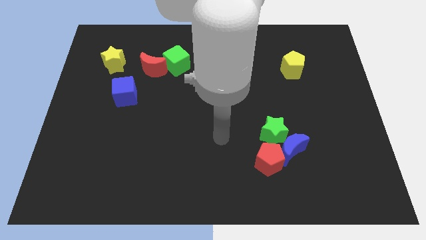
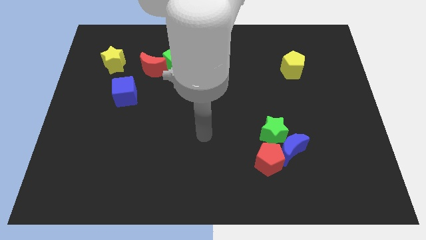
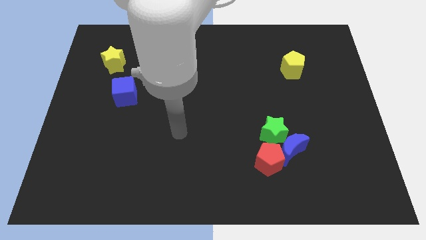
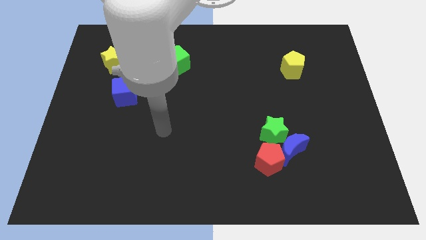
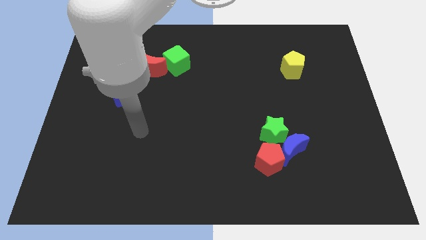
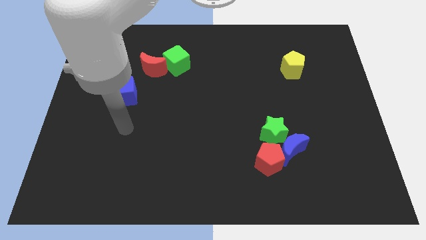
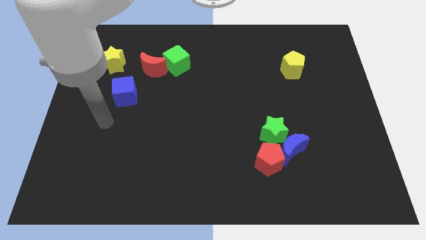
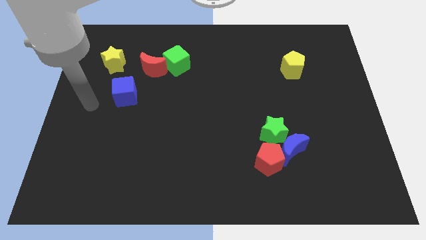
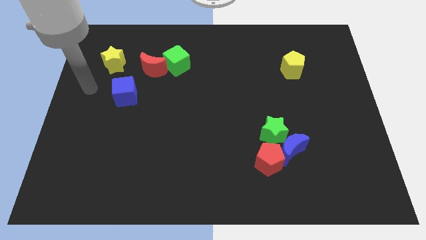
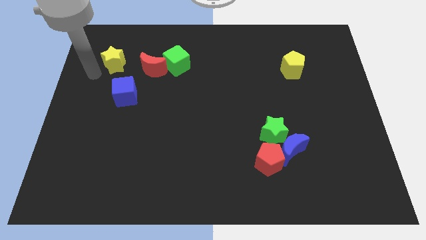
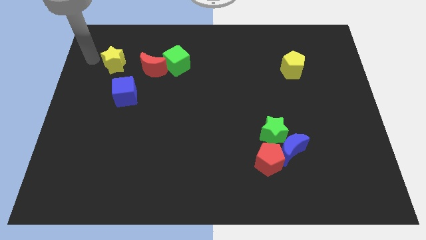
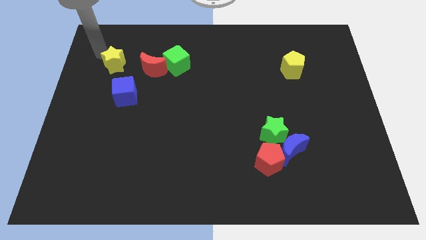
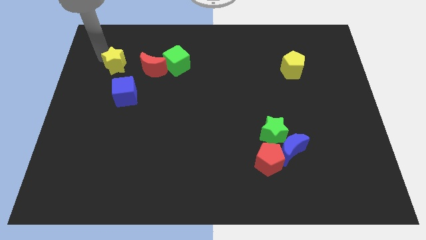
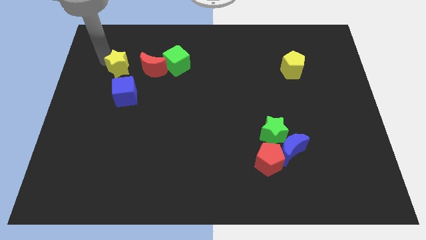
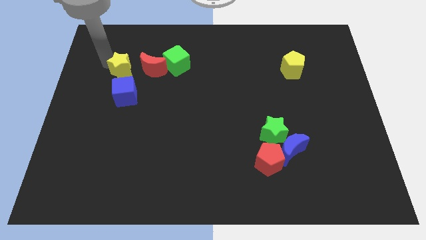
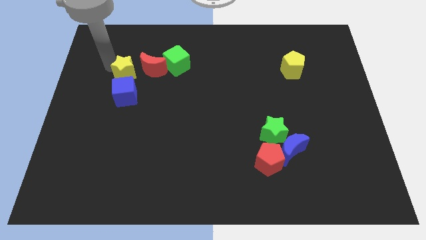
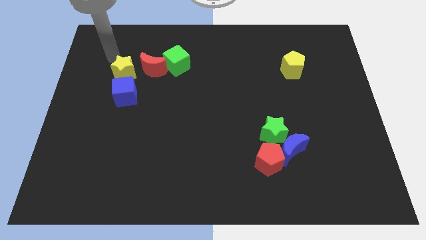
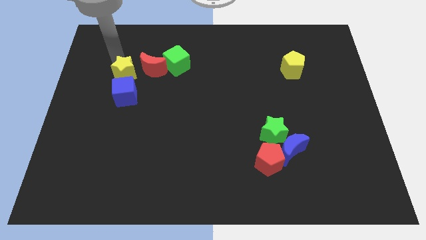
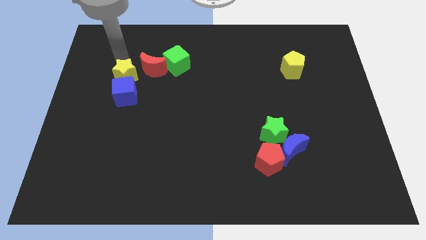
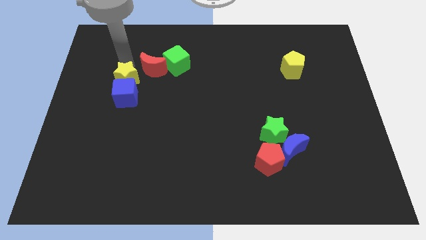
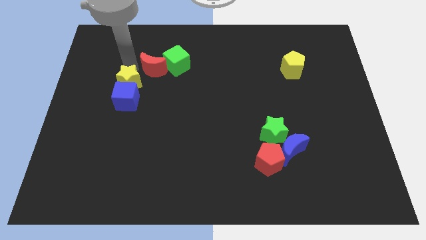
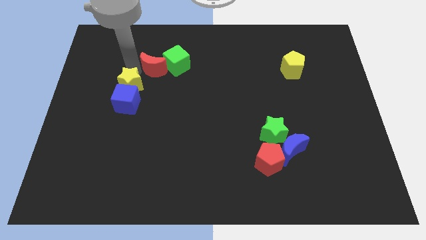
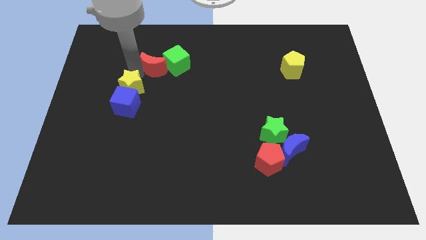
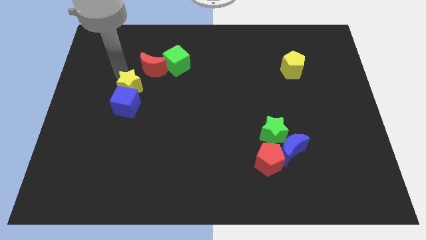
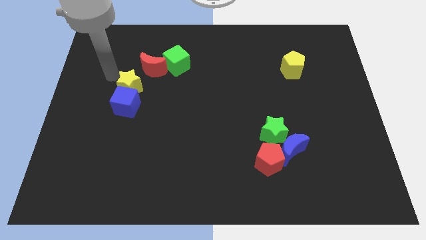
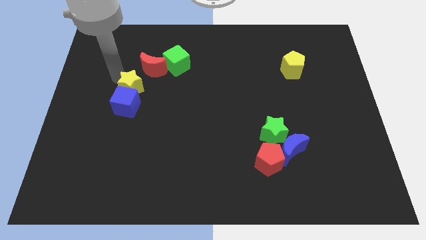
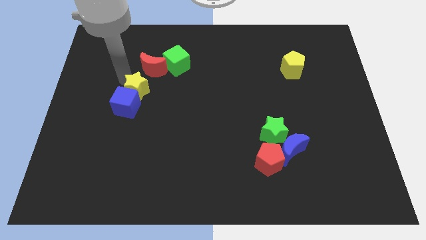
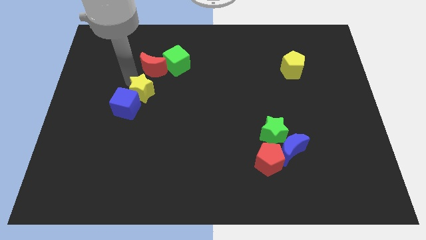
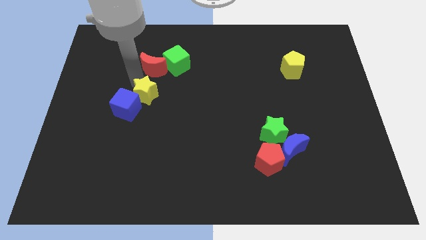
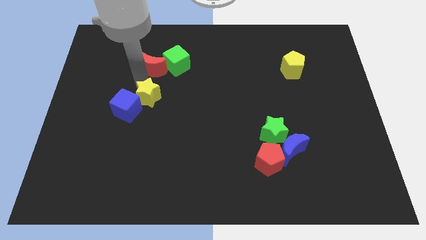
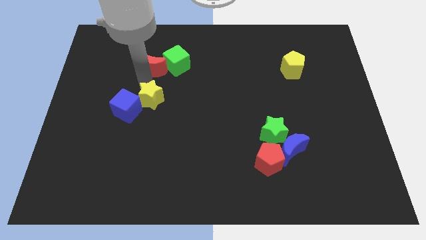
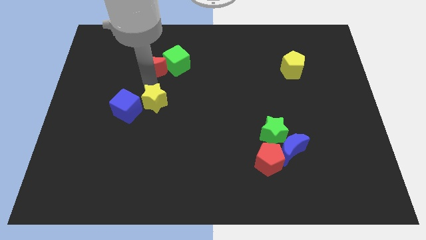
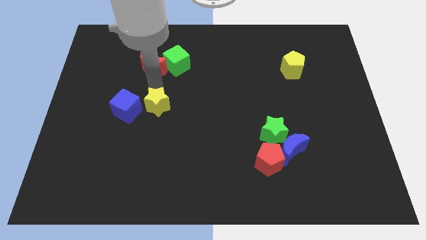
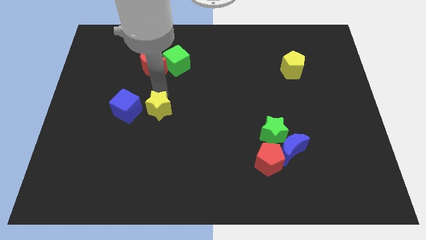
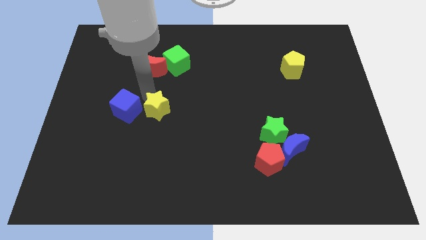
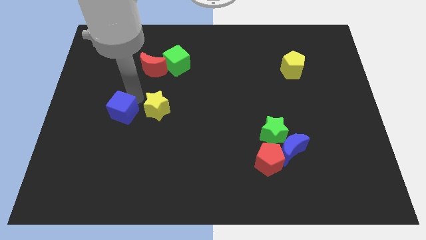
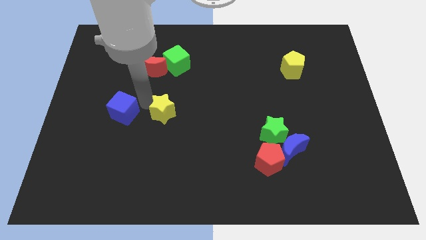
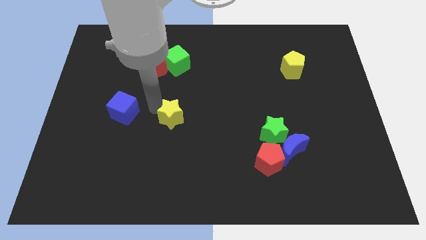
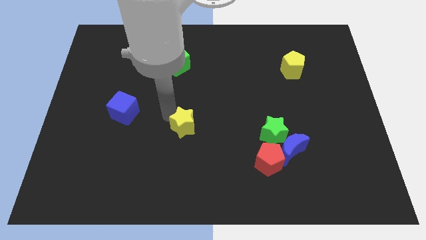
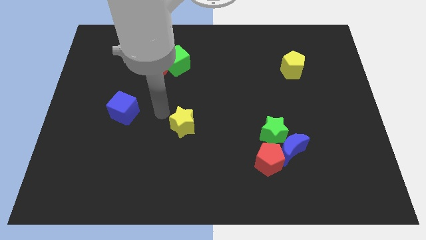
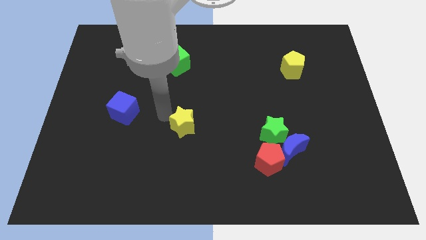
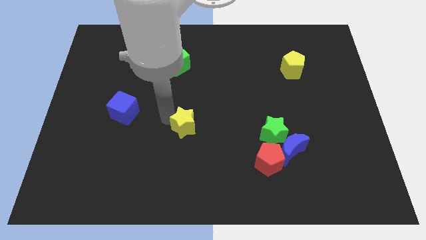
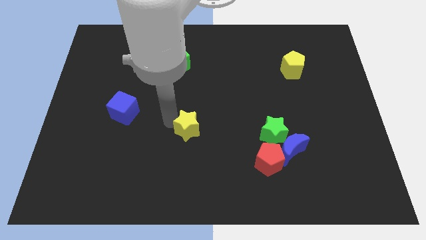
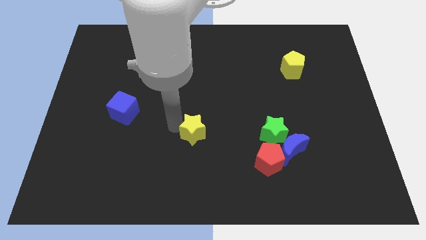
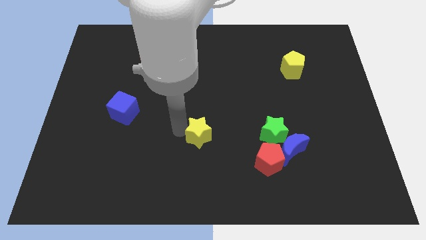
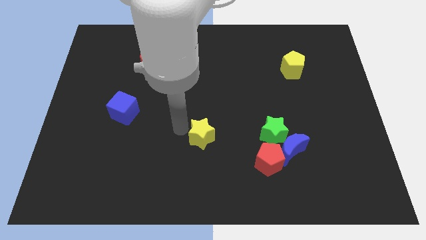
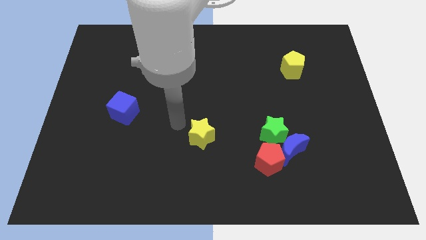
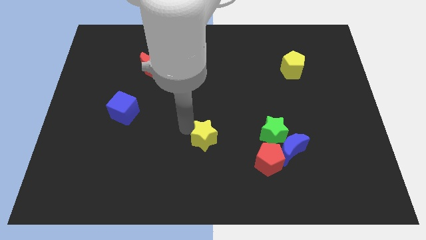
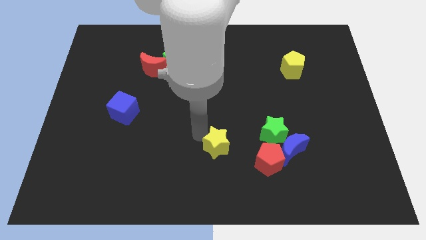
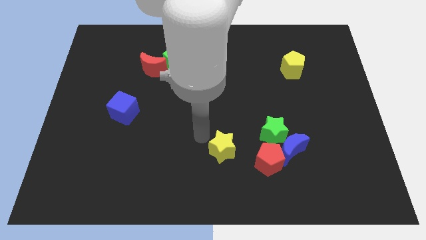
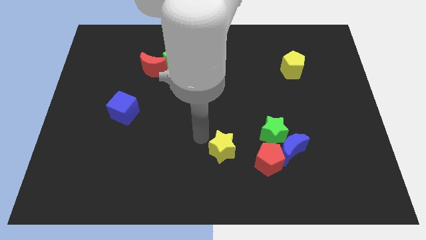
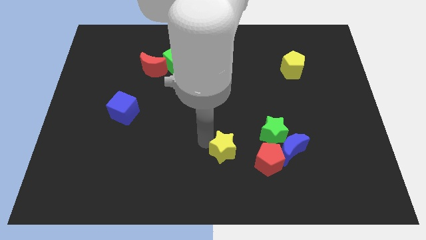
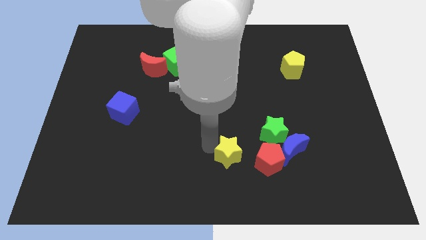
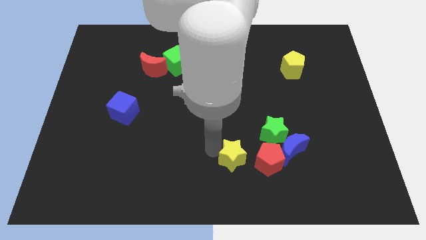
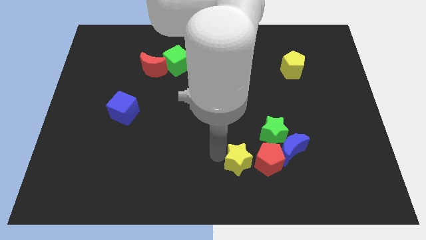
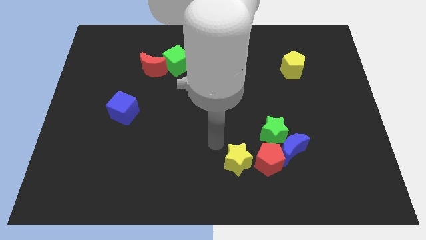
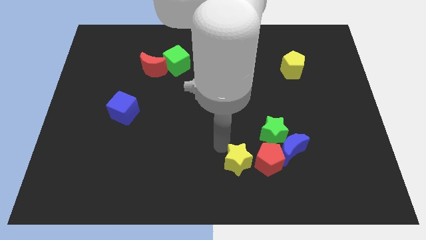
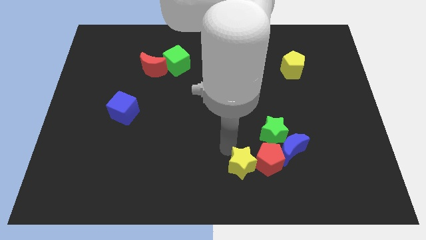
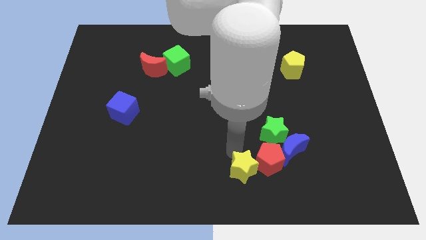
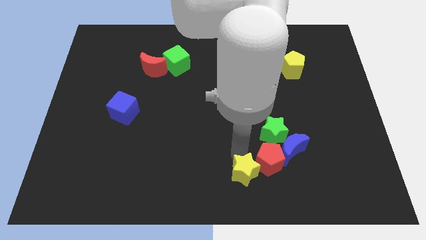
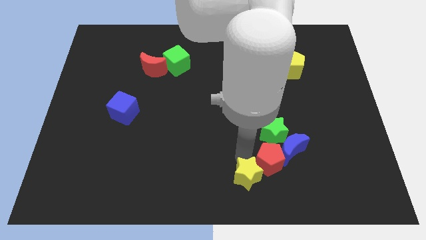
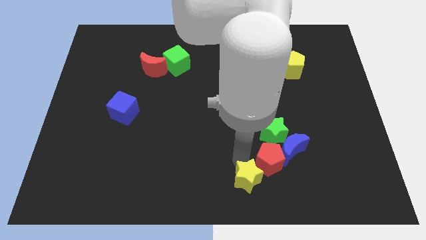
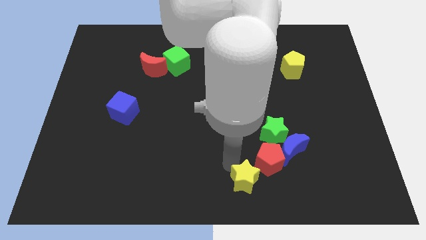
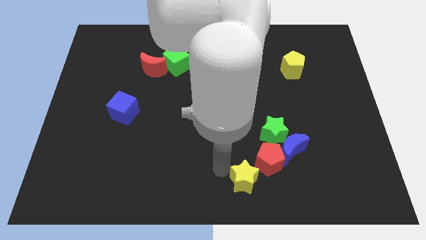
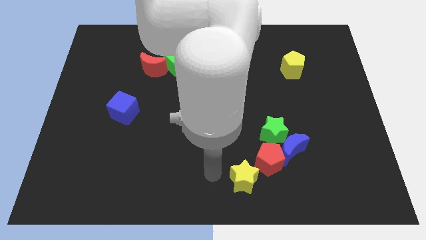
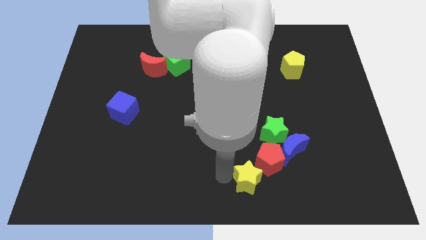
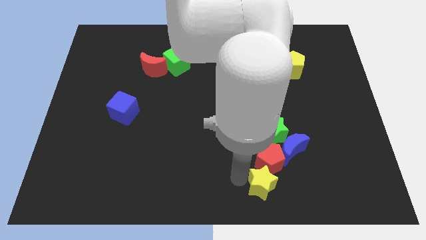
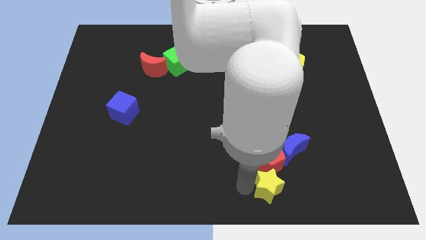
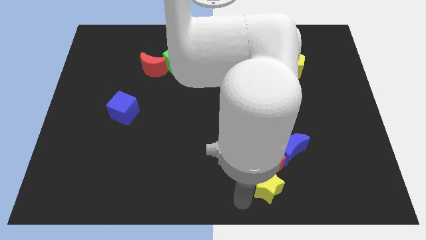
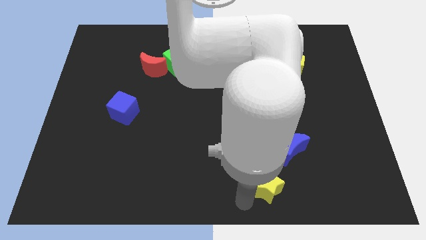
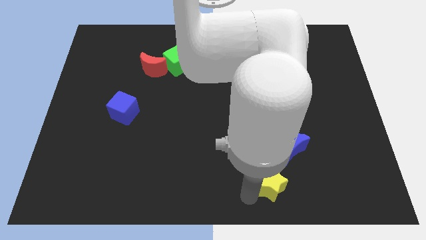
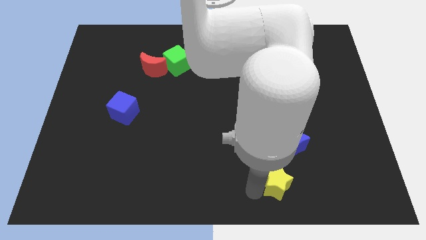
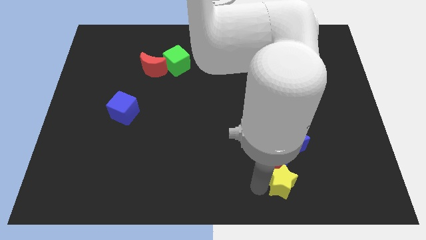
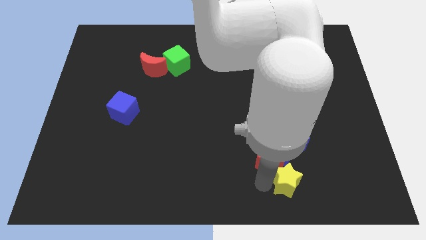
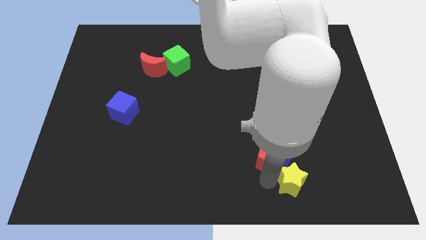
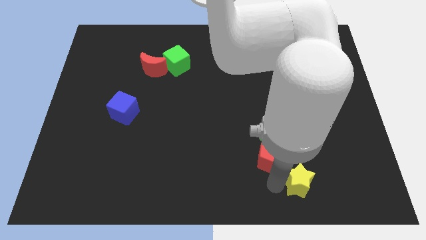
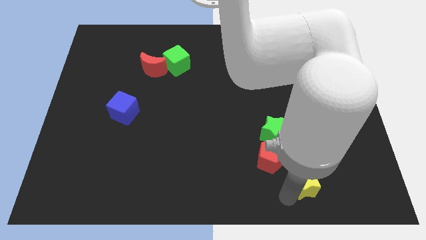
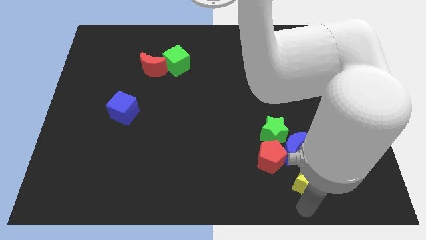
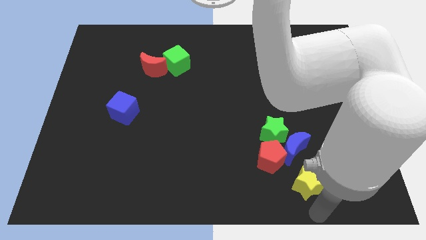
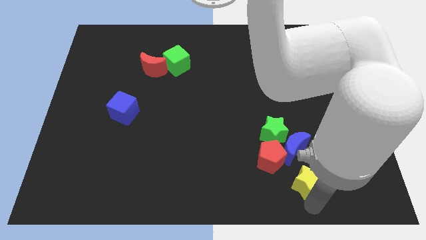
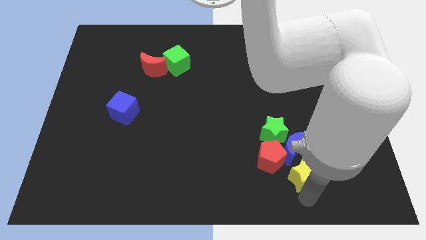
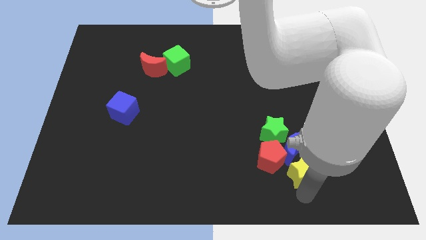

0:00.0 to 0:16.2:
put the yellow star next to the blue moon
